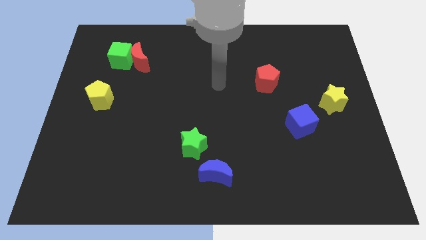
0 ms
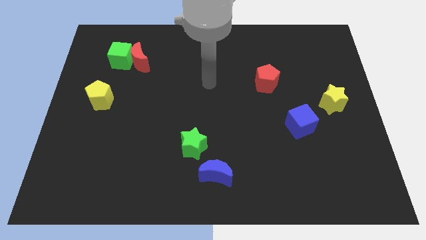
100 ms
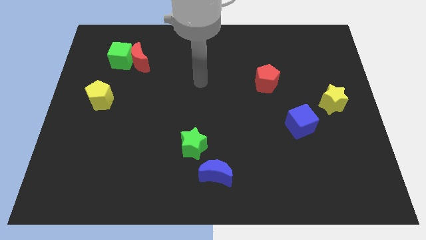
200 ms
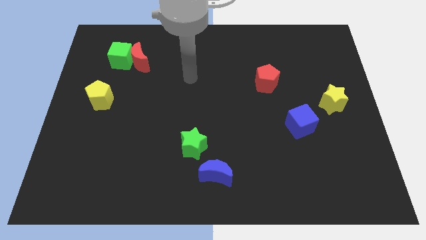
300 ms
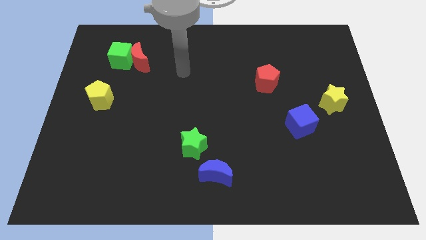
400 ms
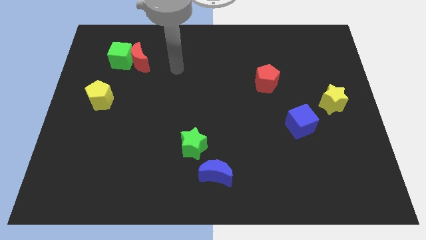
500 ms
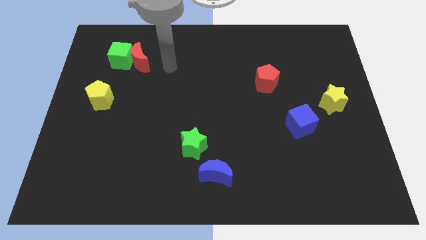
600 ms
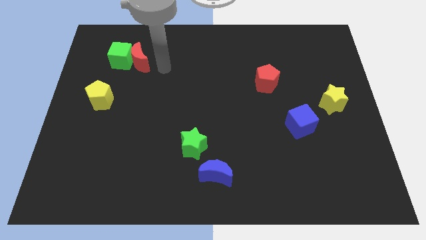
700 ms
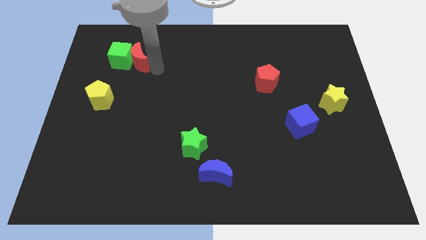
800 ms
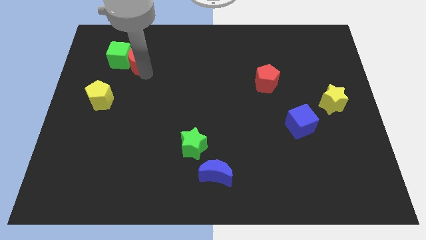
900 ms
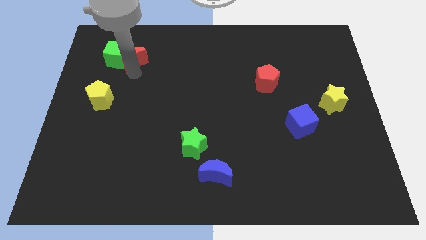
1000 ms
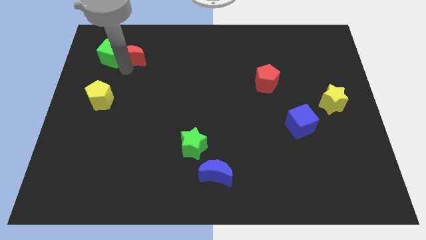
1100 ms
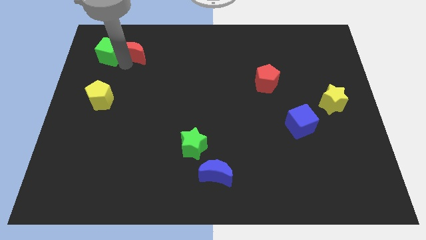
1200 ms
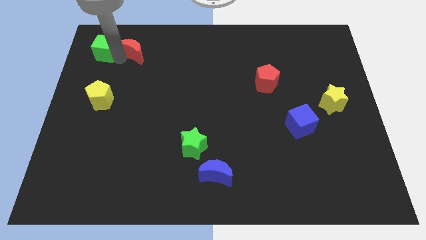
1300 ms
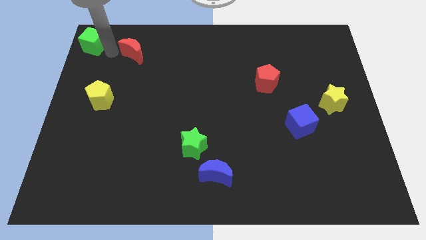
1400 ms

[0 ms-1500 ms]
separate the red moon from the green cube

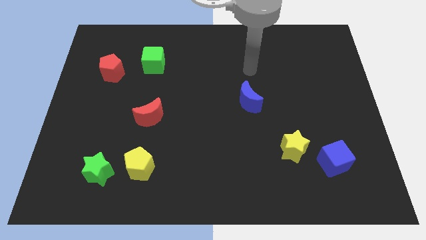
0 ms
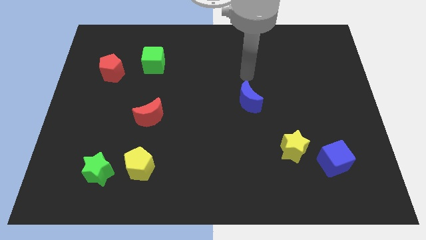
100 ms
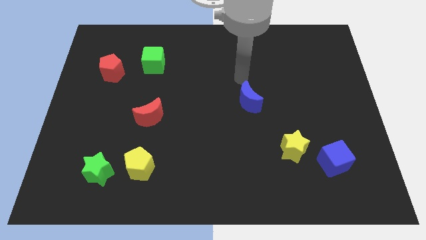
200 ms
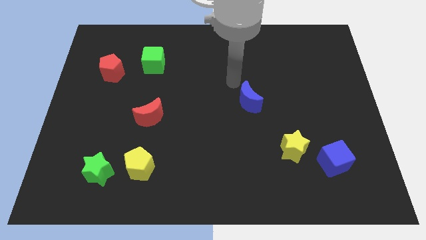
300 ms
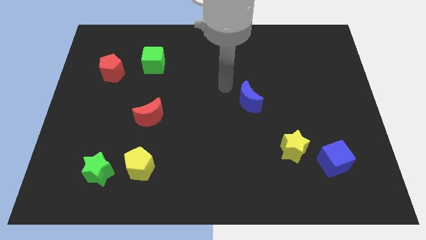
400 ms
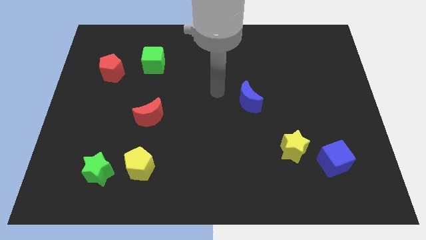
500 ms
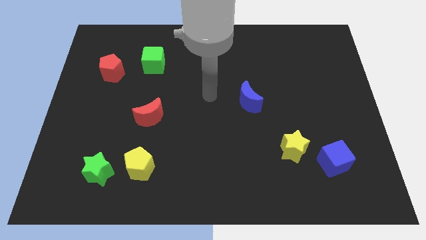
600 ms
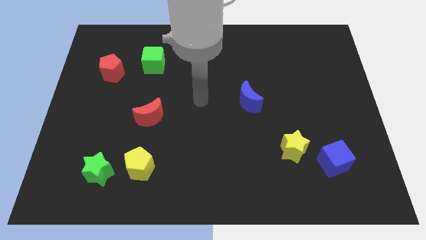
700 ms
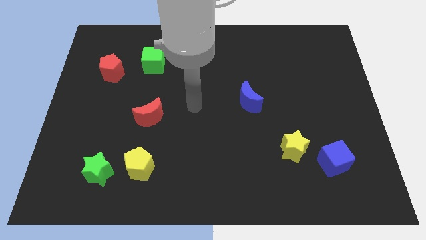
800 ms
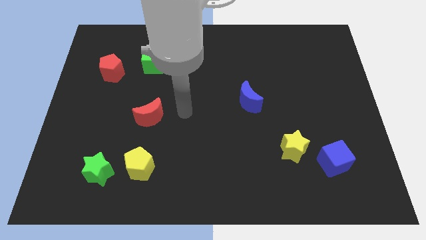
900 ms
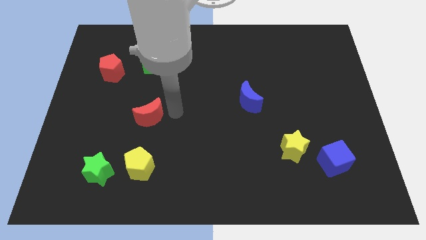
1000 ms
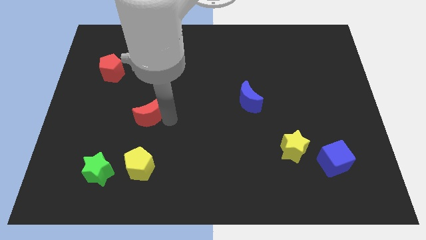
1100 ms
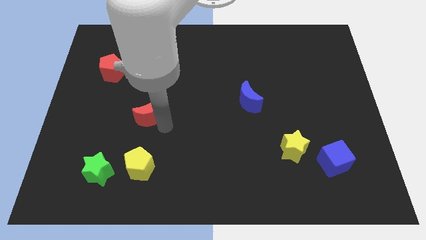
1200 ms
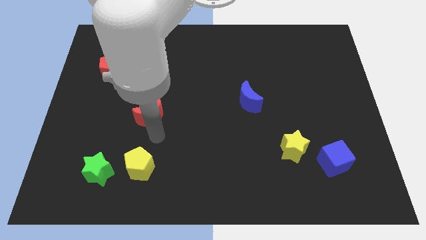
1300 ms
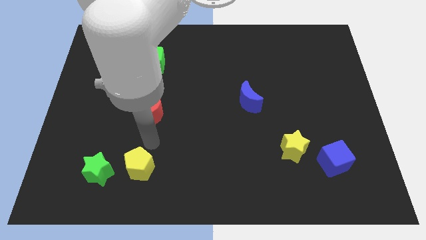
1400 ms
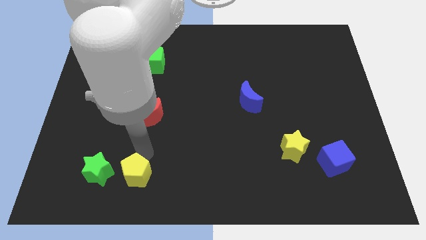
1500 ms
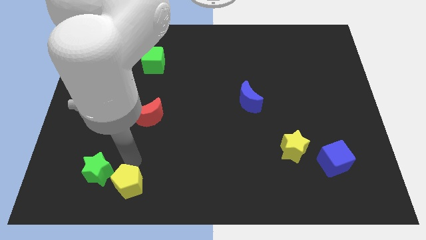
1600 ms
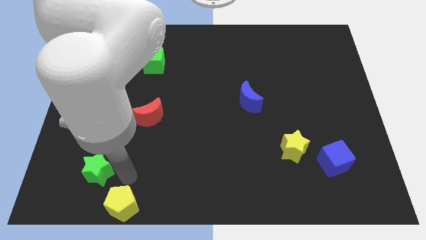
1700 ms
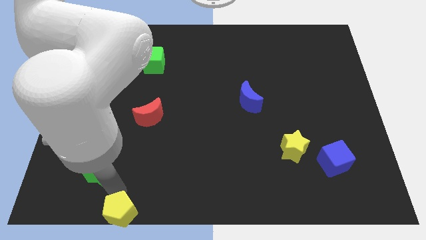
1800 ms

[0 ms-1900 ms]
pull the green star apart from the yellow pentagon

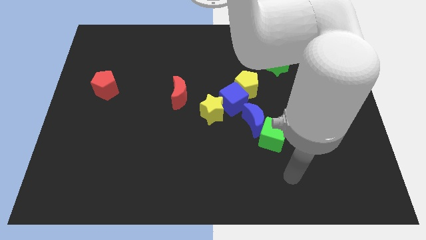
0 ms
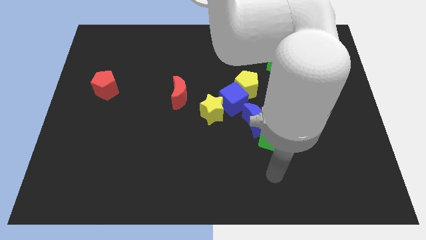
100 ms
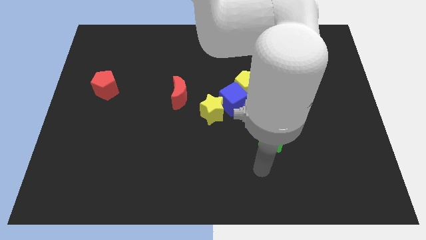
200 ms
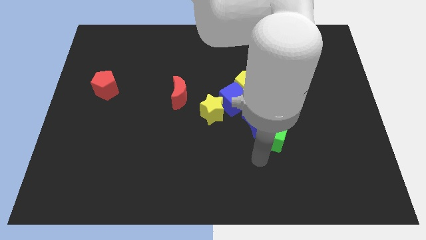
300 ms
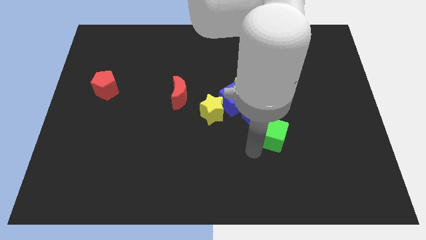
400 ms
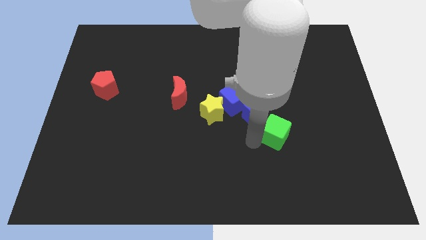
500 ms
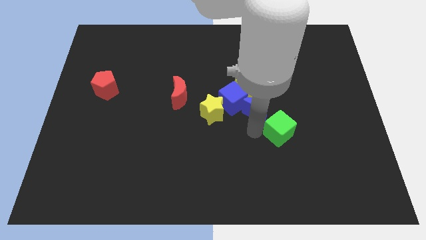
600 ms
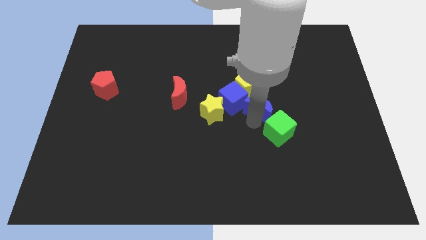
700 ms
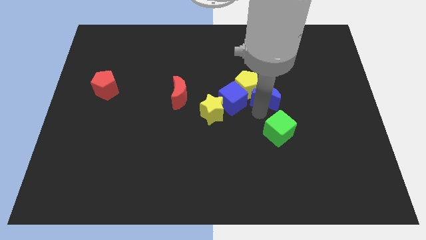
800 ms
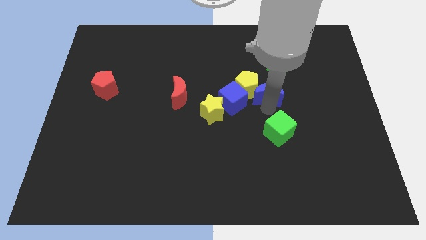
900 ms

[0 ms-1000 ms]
pull the green cube apart from the blue moon

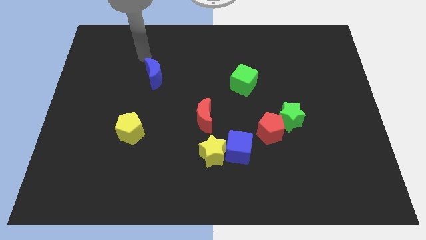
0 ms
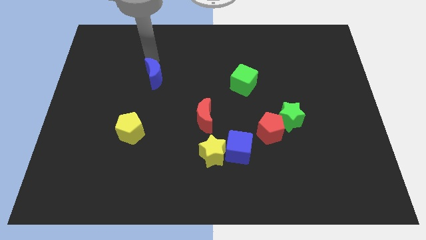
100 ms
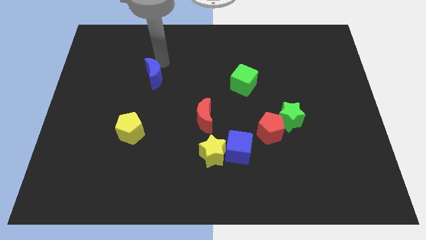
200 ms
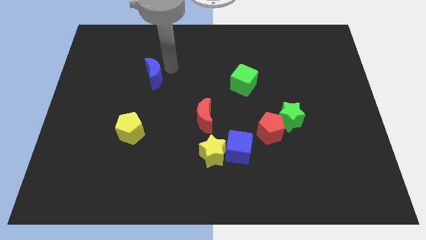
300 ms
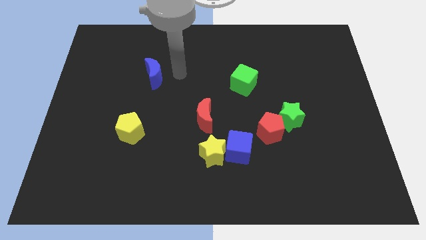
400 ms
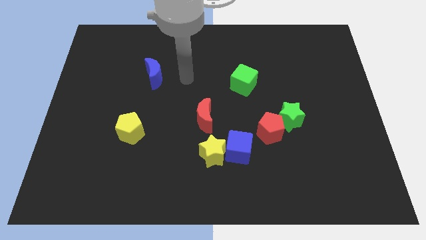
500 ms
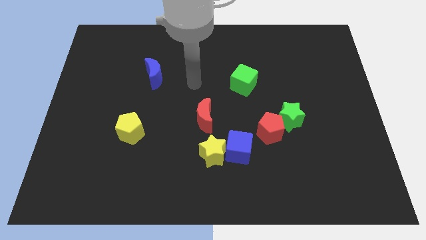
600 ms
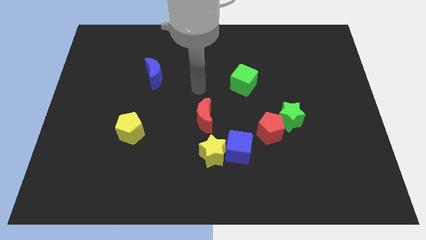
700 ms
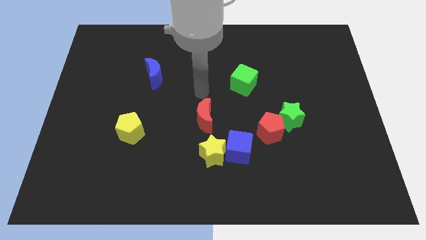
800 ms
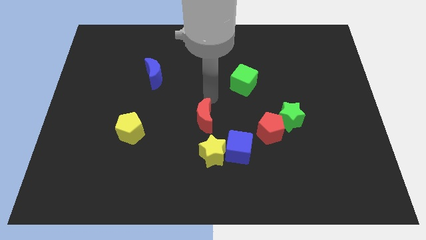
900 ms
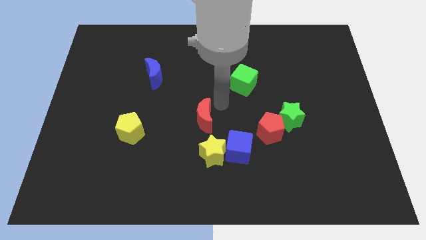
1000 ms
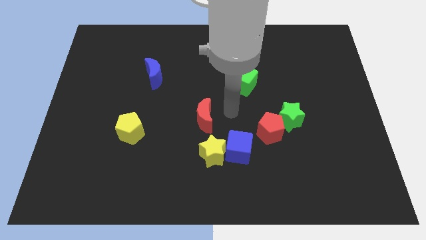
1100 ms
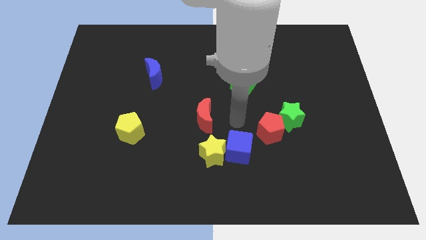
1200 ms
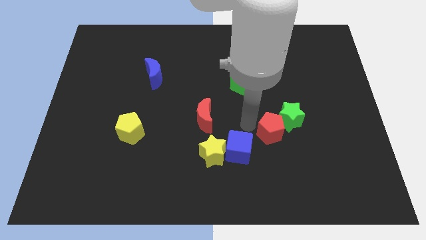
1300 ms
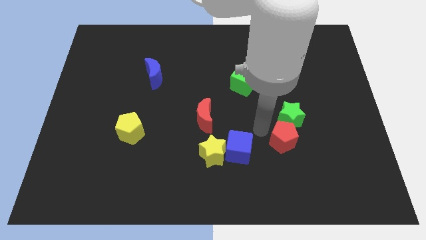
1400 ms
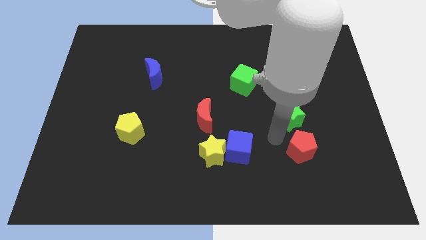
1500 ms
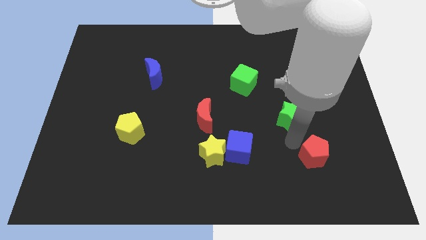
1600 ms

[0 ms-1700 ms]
separate the green star from the red pentagon

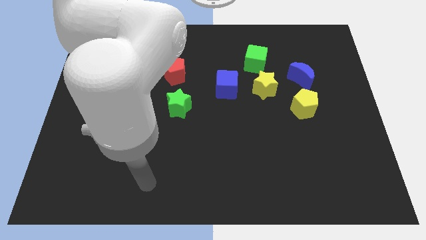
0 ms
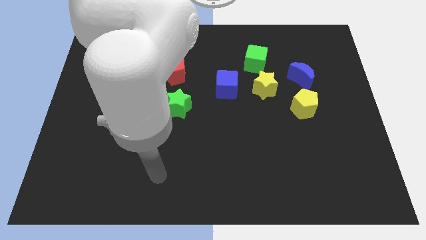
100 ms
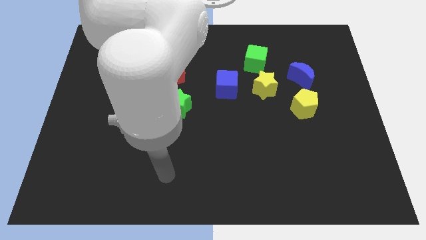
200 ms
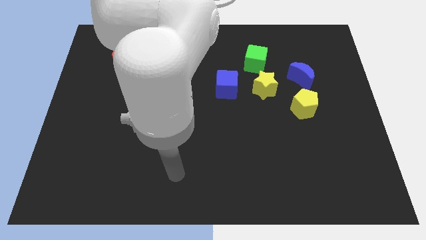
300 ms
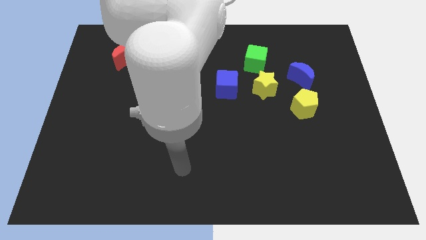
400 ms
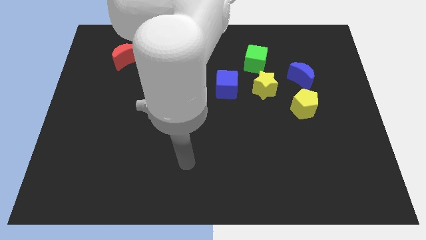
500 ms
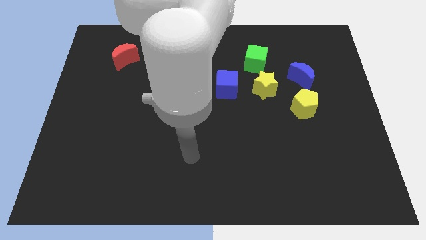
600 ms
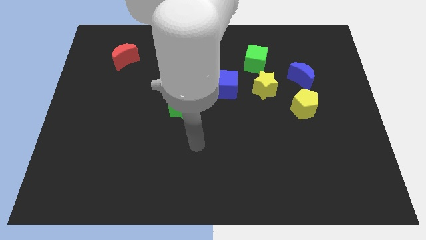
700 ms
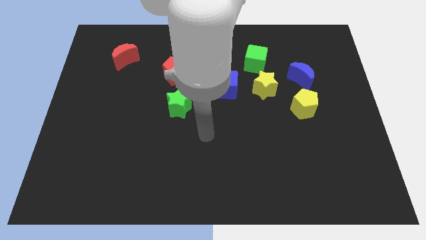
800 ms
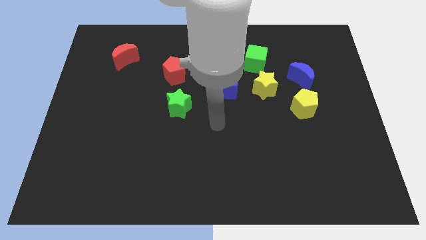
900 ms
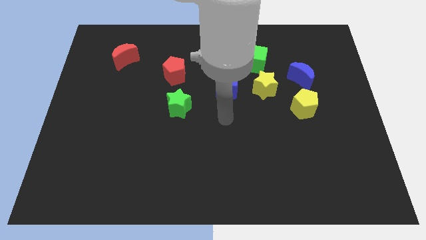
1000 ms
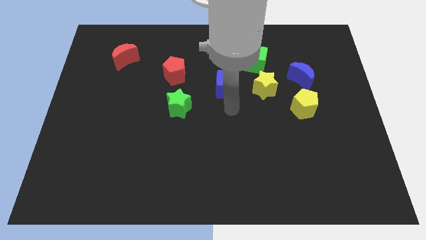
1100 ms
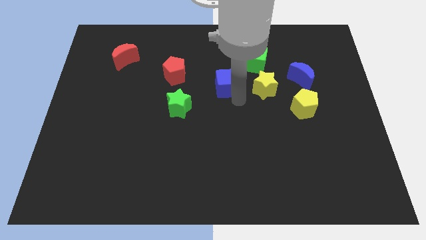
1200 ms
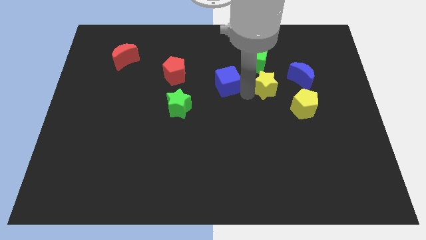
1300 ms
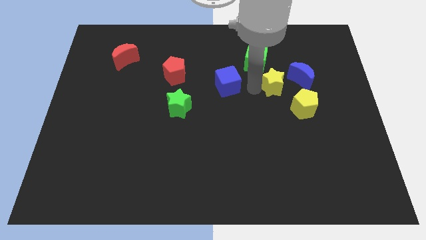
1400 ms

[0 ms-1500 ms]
separate the blue cube from the yellow star

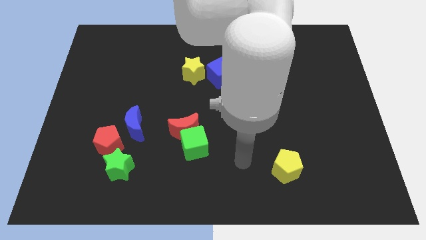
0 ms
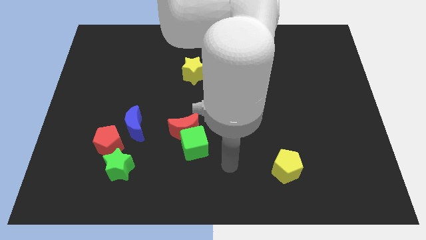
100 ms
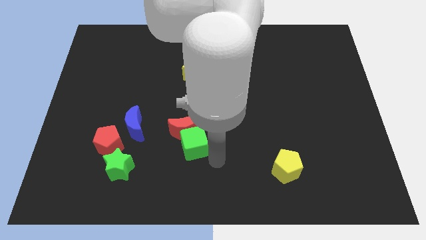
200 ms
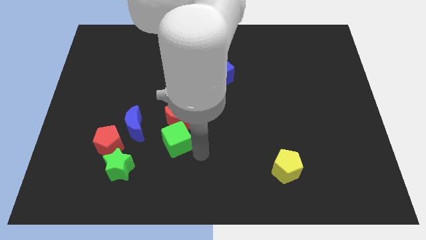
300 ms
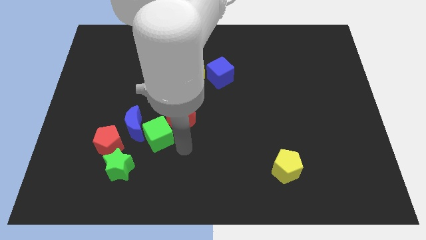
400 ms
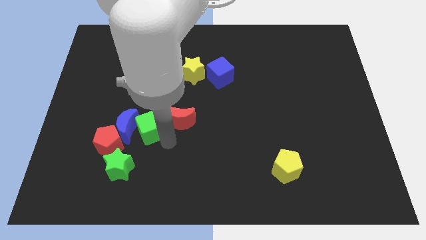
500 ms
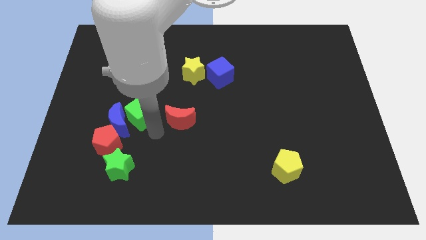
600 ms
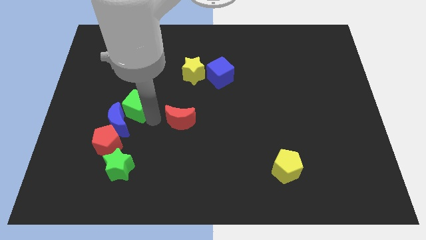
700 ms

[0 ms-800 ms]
move the red moon away from the green cube

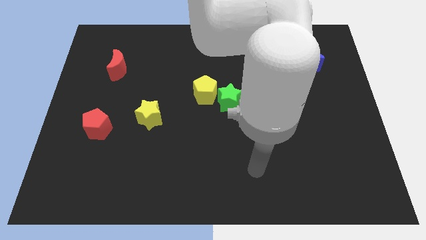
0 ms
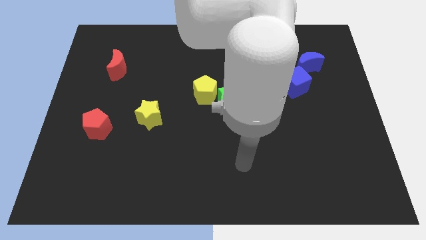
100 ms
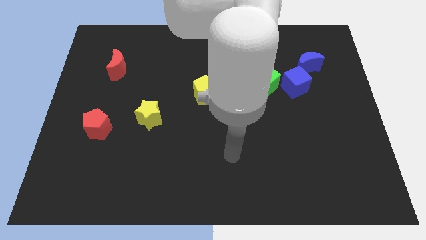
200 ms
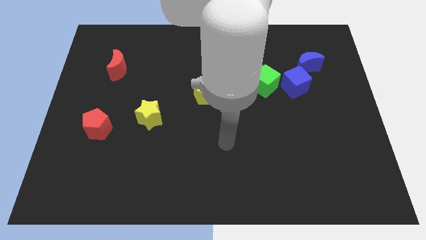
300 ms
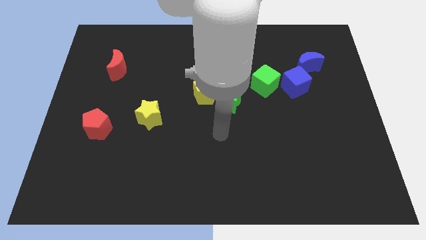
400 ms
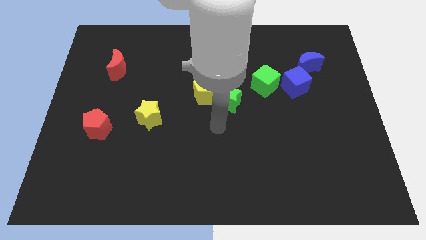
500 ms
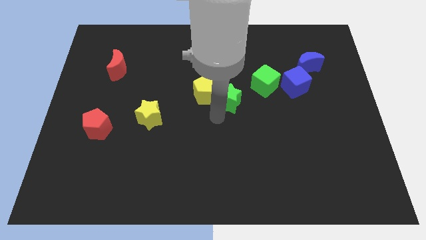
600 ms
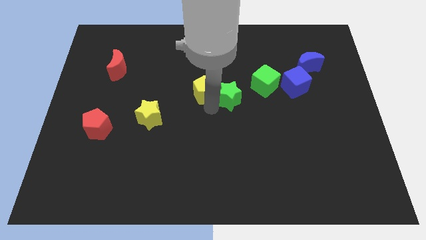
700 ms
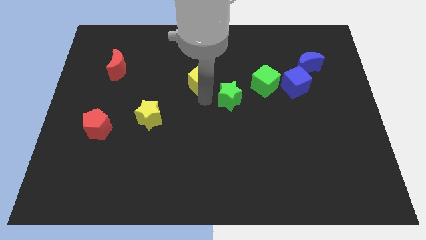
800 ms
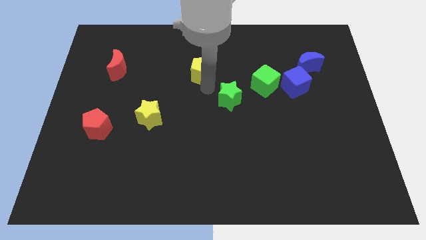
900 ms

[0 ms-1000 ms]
separate the green star from the yellow pentagon
